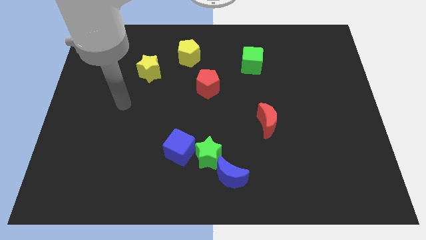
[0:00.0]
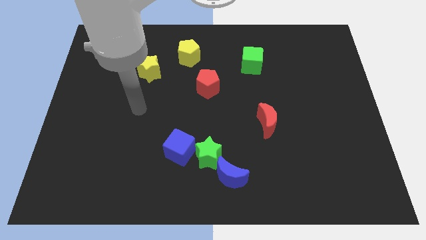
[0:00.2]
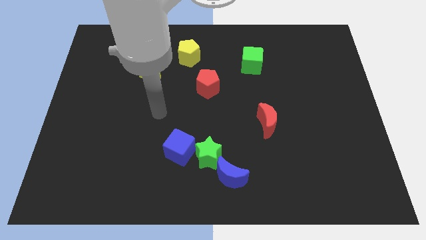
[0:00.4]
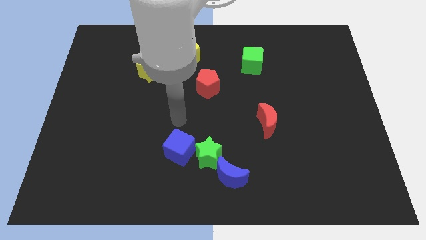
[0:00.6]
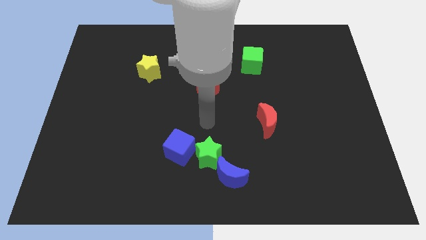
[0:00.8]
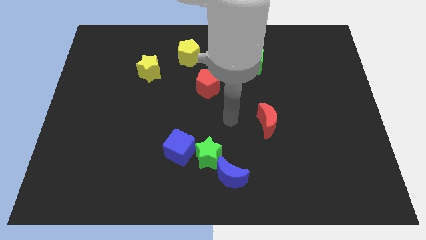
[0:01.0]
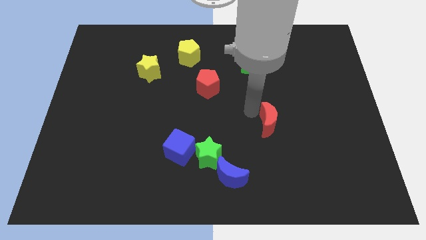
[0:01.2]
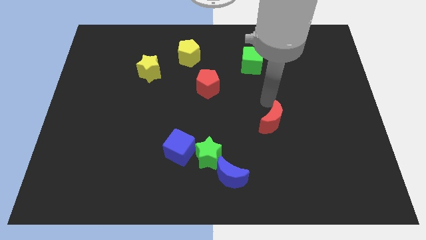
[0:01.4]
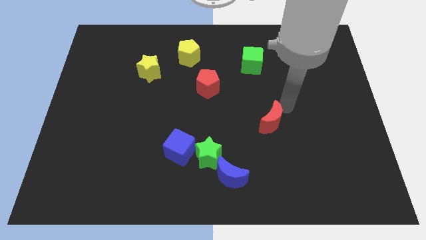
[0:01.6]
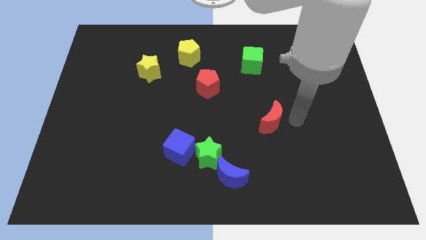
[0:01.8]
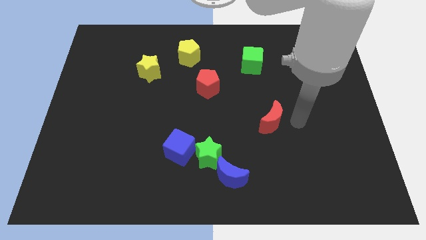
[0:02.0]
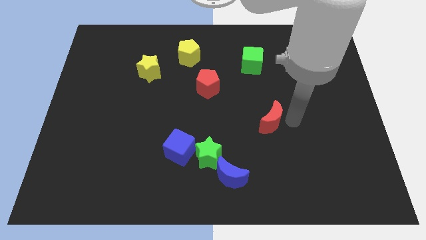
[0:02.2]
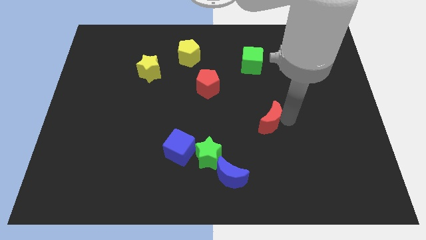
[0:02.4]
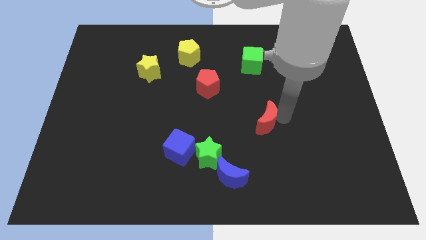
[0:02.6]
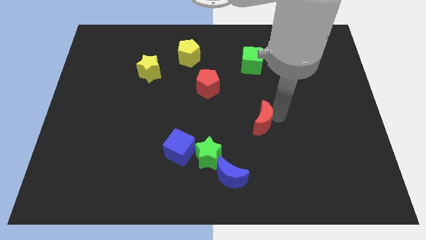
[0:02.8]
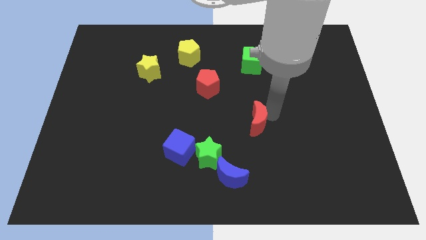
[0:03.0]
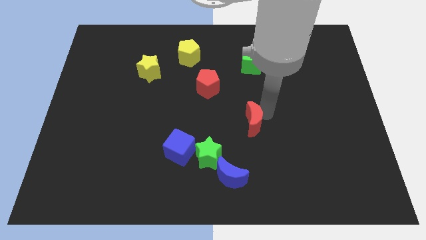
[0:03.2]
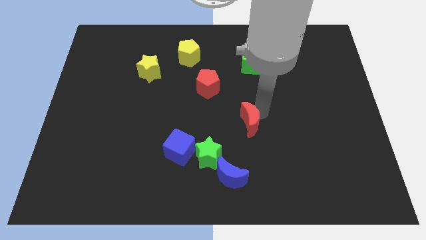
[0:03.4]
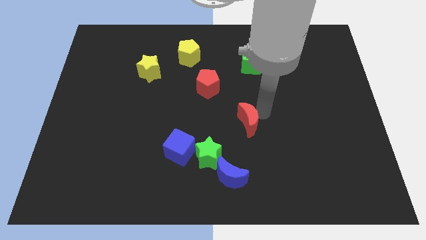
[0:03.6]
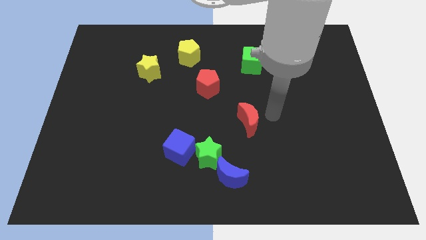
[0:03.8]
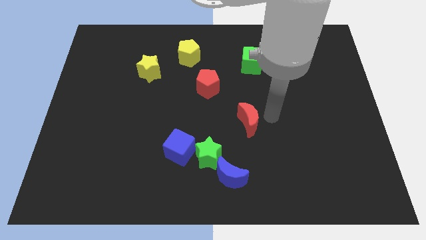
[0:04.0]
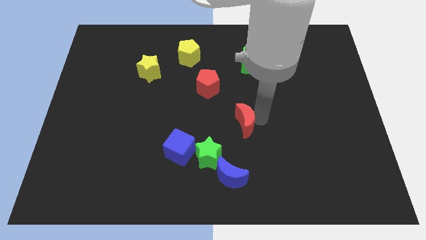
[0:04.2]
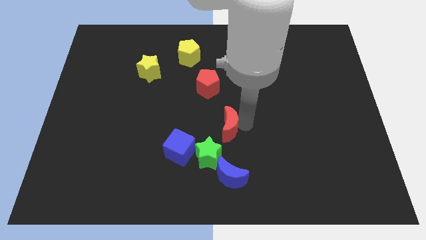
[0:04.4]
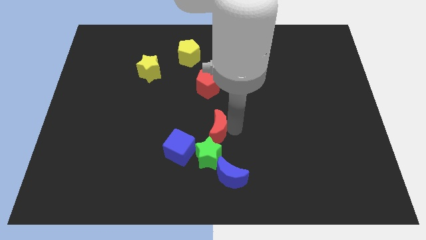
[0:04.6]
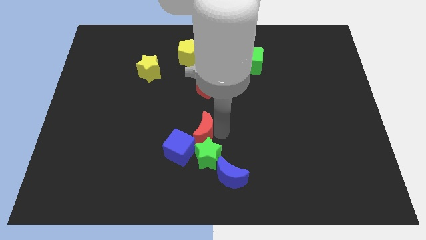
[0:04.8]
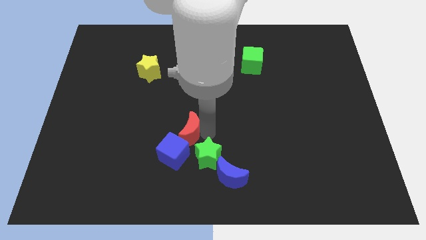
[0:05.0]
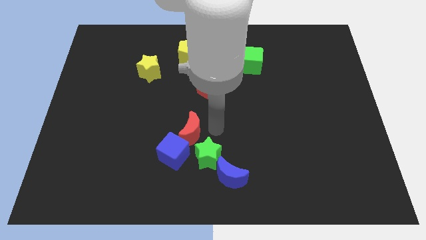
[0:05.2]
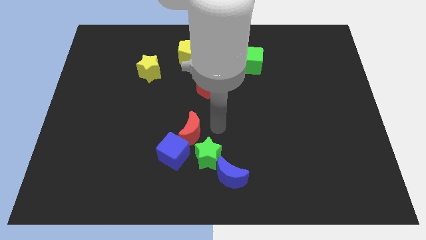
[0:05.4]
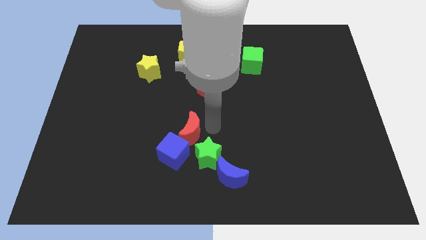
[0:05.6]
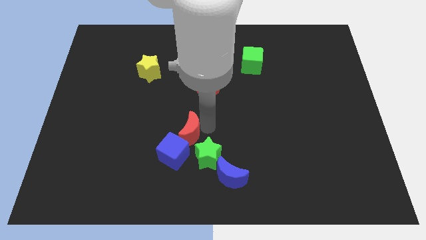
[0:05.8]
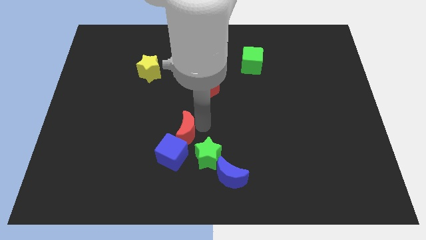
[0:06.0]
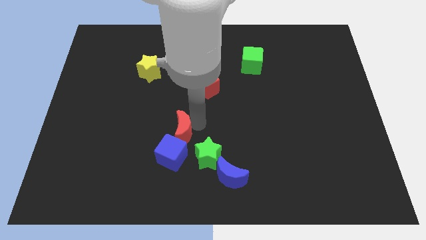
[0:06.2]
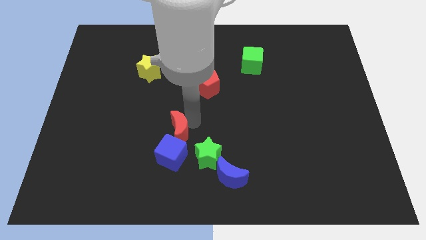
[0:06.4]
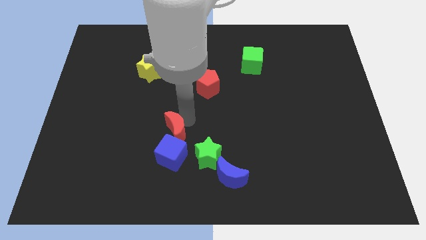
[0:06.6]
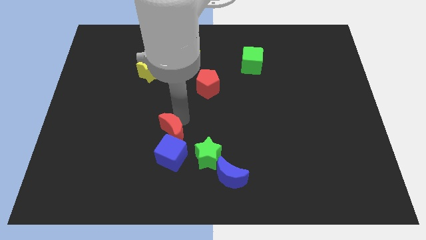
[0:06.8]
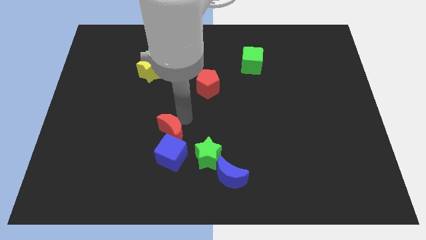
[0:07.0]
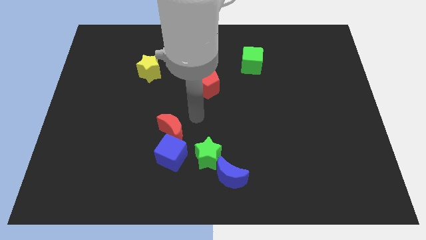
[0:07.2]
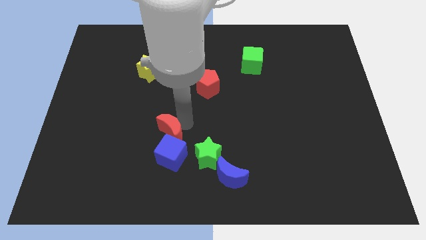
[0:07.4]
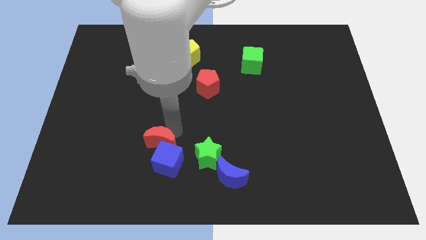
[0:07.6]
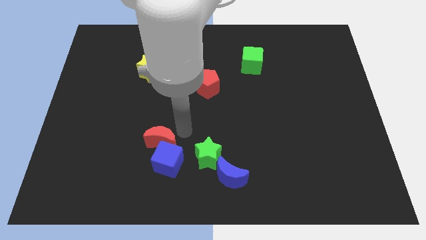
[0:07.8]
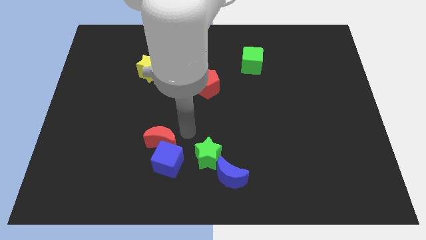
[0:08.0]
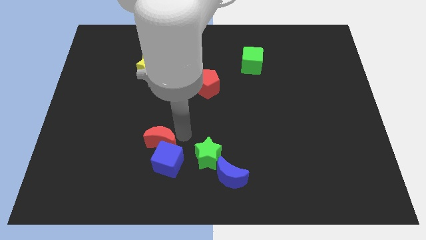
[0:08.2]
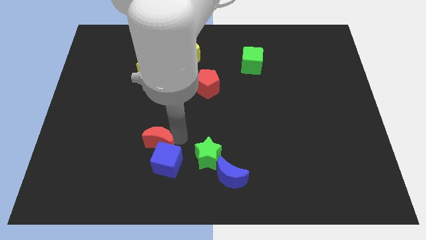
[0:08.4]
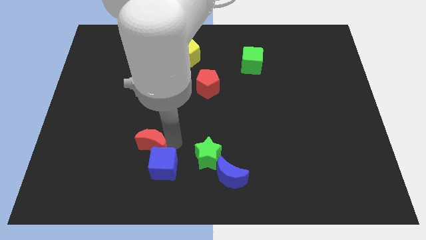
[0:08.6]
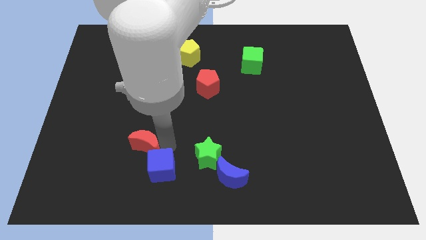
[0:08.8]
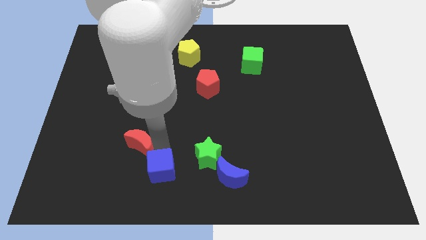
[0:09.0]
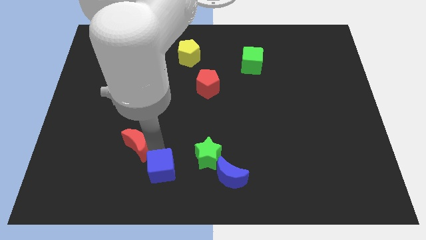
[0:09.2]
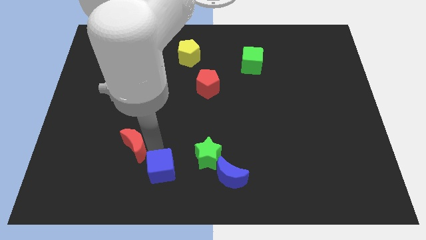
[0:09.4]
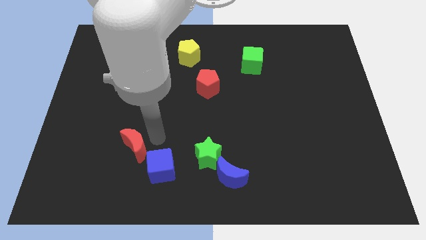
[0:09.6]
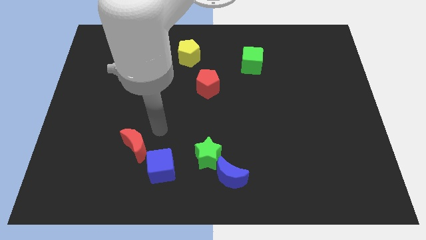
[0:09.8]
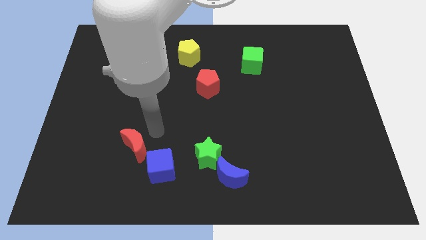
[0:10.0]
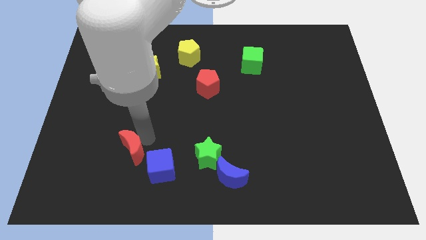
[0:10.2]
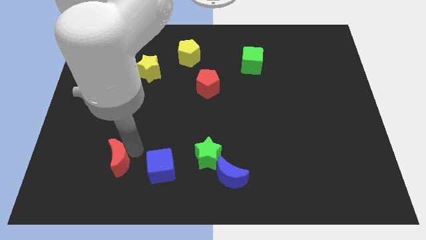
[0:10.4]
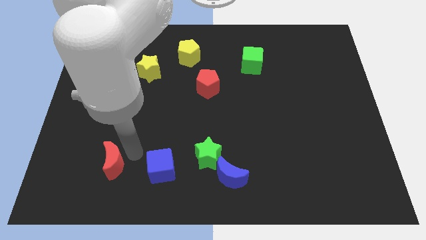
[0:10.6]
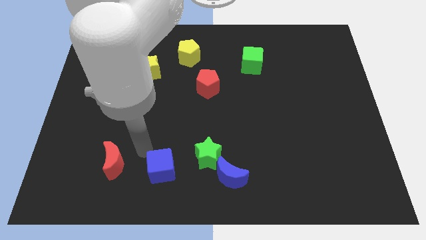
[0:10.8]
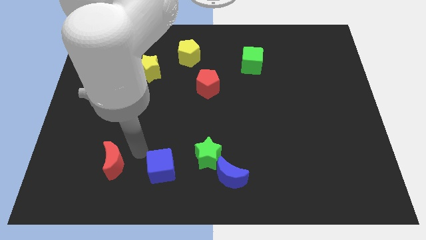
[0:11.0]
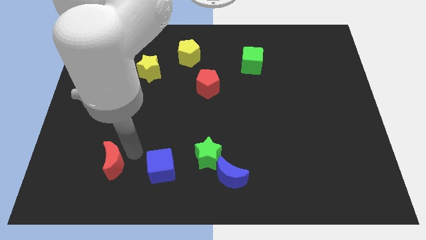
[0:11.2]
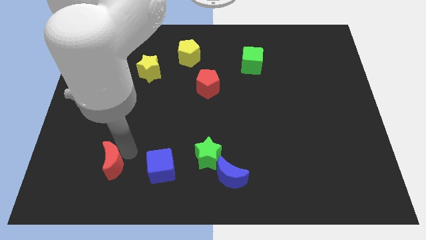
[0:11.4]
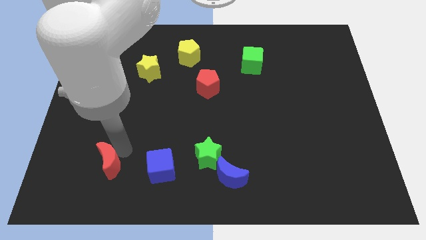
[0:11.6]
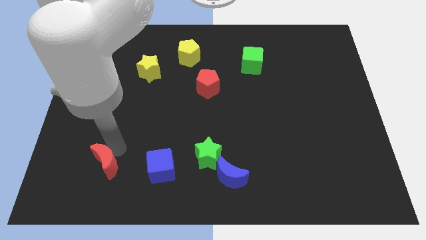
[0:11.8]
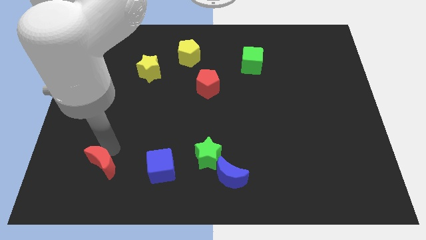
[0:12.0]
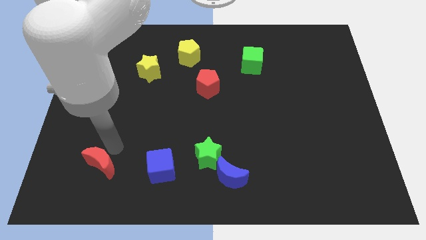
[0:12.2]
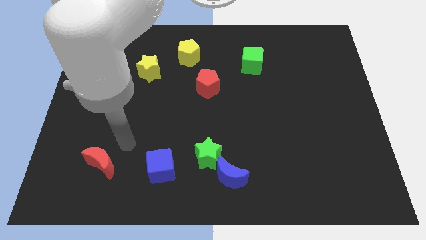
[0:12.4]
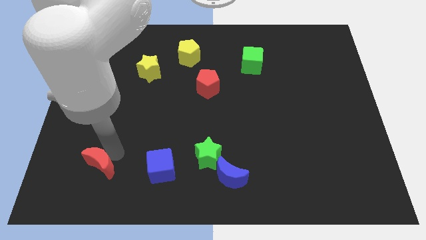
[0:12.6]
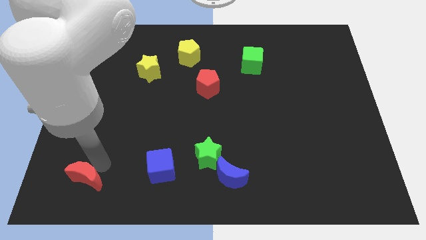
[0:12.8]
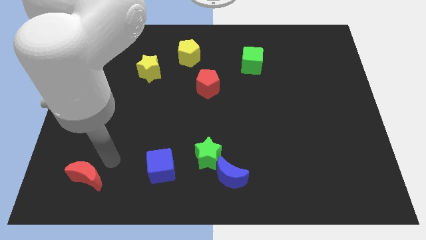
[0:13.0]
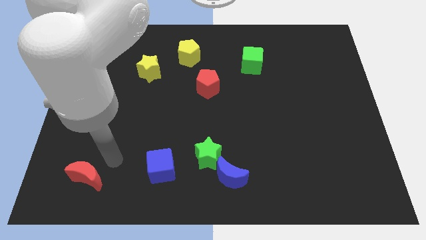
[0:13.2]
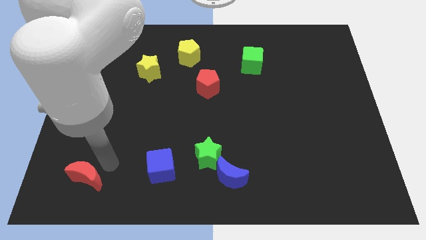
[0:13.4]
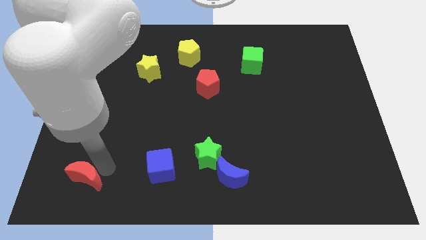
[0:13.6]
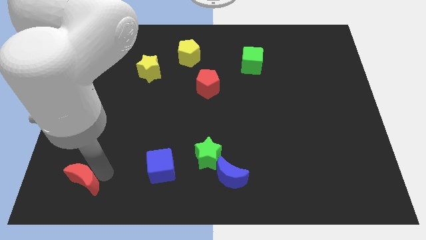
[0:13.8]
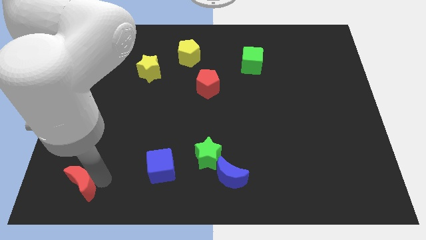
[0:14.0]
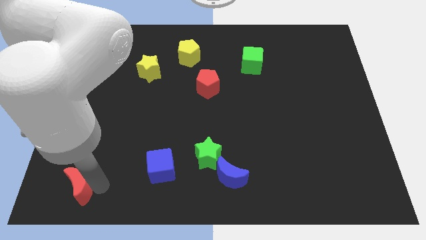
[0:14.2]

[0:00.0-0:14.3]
slide the red moon to the bottom left of the board
